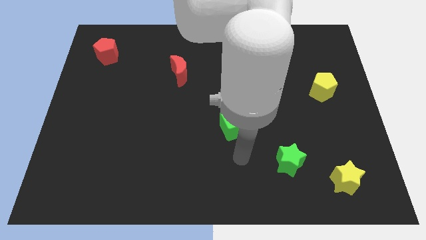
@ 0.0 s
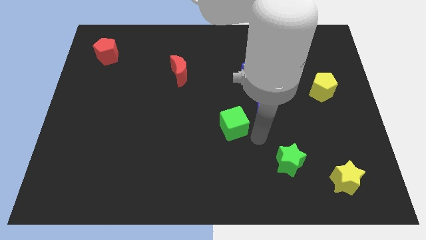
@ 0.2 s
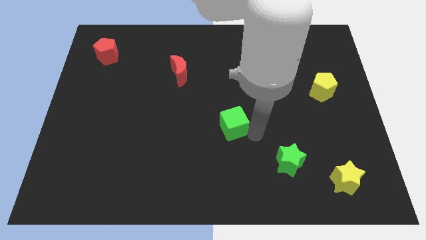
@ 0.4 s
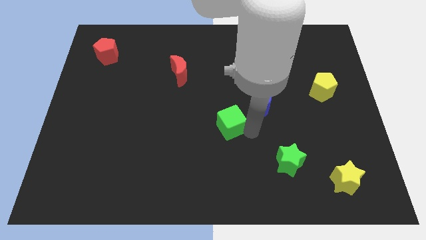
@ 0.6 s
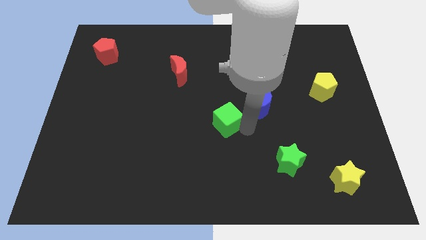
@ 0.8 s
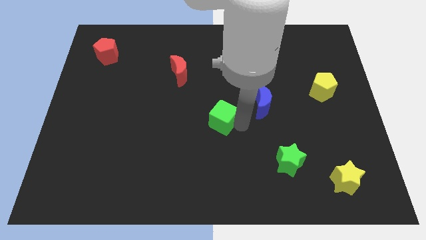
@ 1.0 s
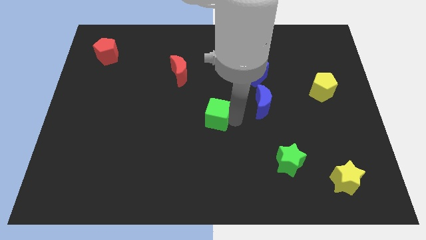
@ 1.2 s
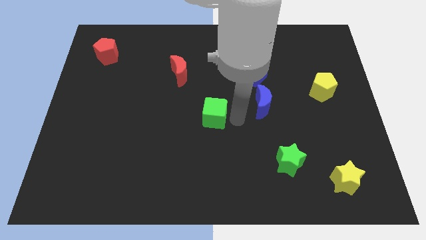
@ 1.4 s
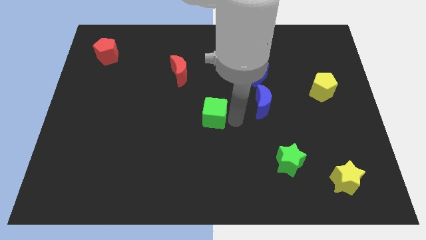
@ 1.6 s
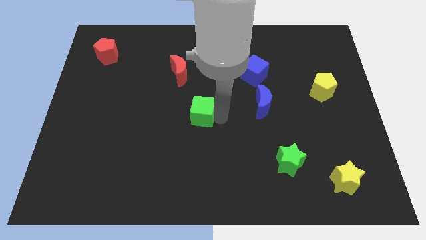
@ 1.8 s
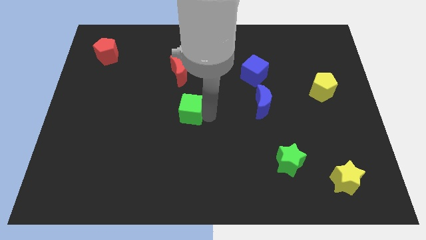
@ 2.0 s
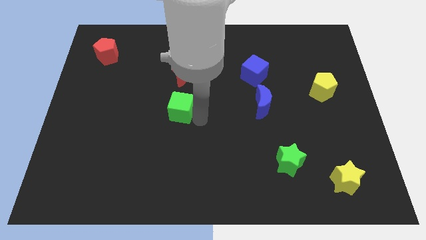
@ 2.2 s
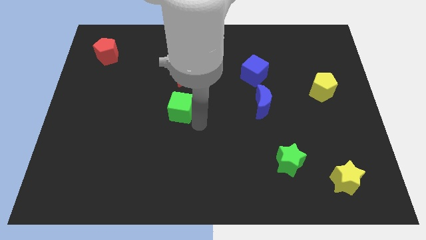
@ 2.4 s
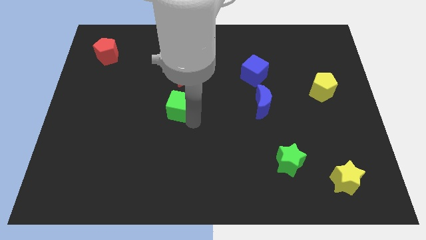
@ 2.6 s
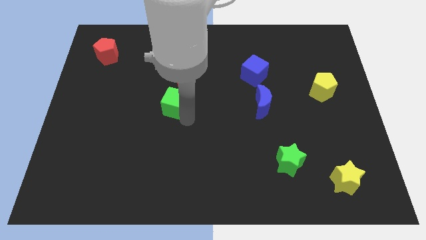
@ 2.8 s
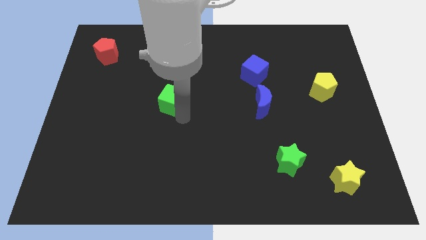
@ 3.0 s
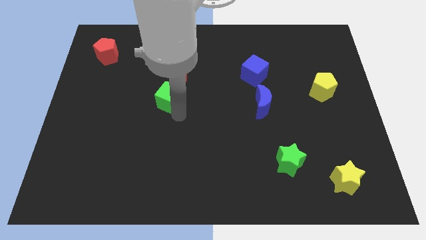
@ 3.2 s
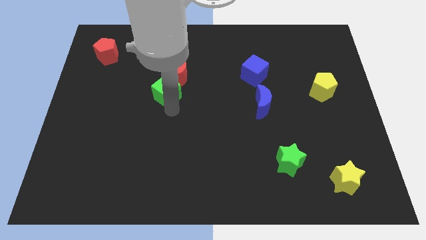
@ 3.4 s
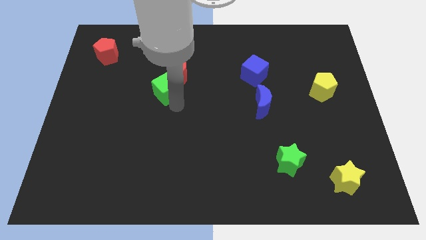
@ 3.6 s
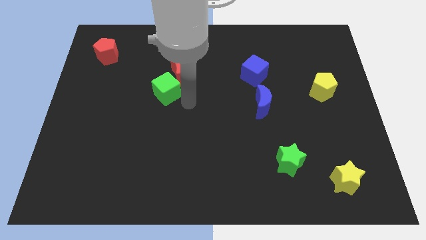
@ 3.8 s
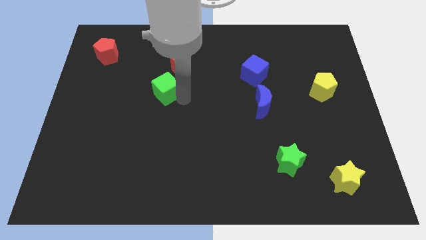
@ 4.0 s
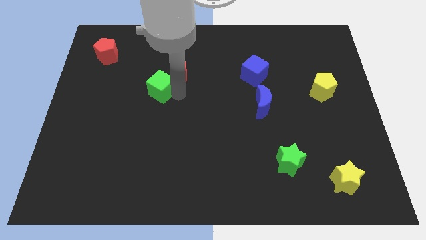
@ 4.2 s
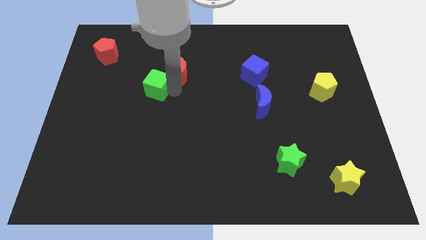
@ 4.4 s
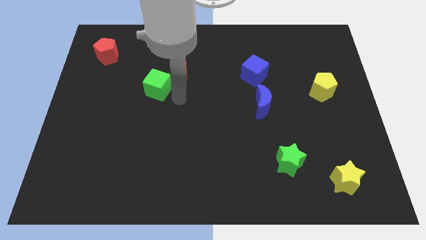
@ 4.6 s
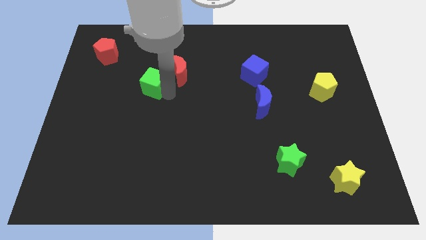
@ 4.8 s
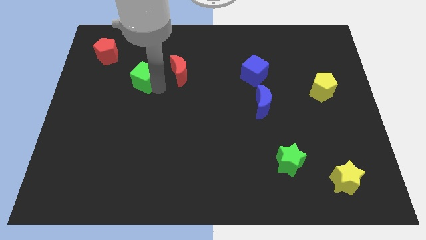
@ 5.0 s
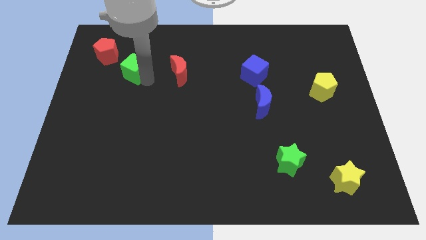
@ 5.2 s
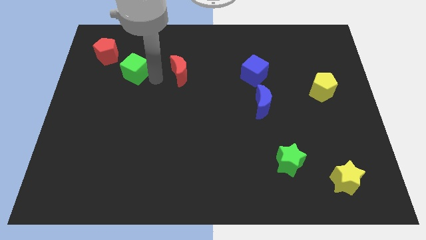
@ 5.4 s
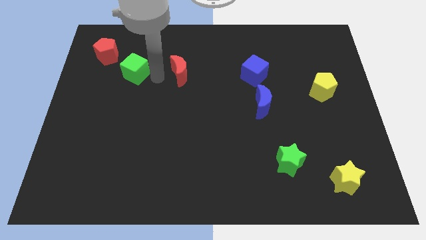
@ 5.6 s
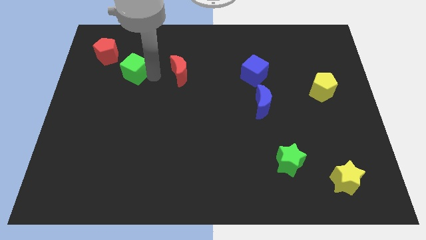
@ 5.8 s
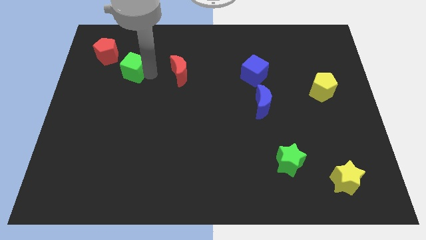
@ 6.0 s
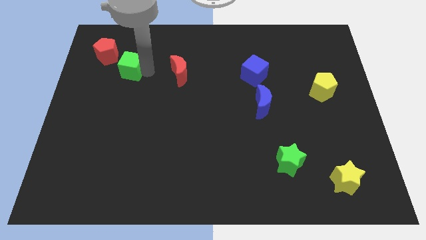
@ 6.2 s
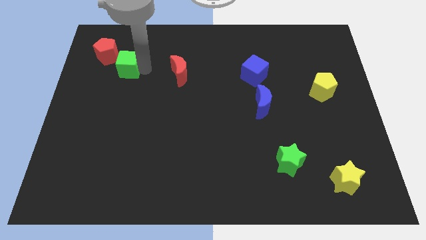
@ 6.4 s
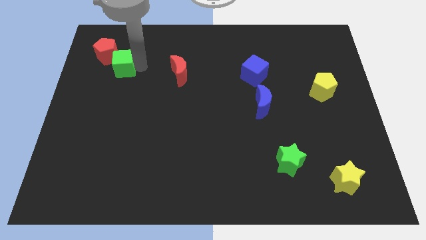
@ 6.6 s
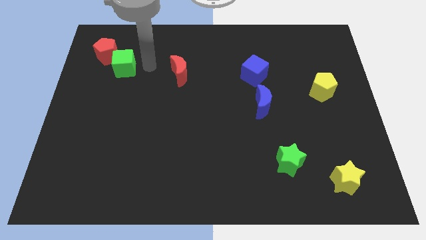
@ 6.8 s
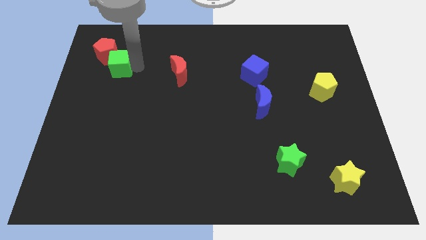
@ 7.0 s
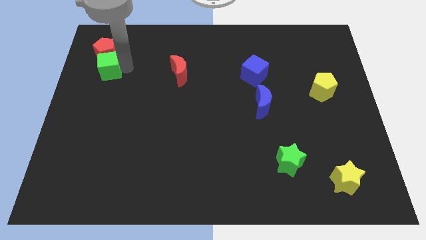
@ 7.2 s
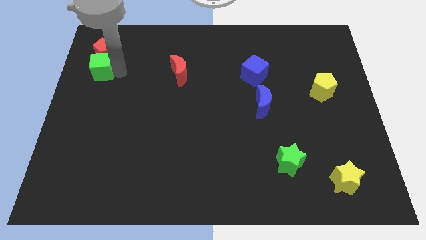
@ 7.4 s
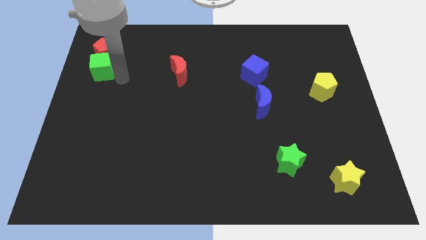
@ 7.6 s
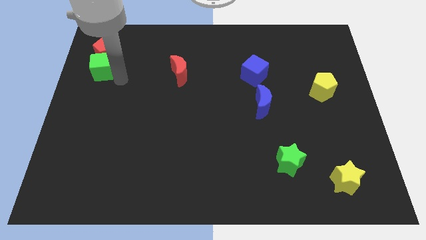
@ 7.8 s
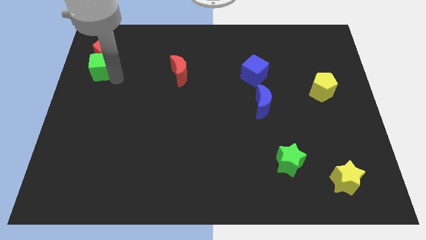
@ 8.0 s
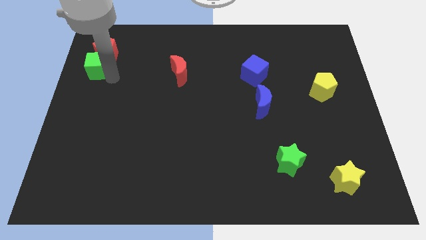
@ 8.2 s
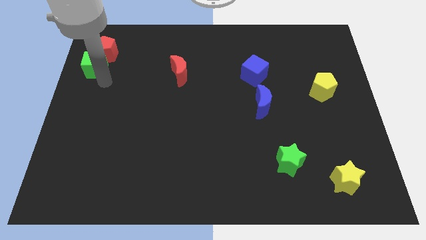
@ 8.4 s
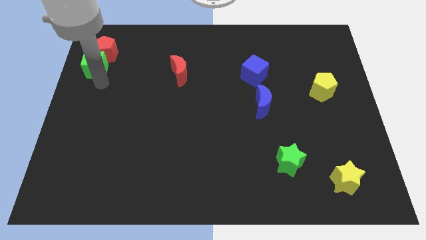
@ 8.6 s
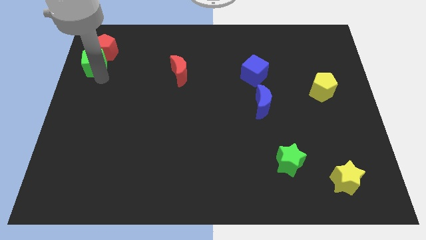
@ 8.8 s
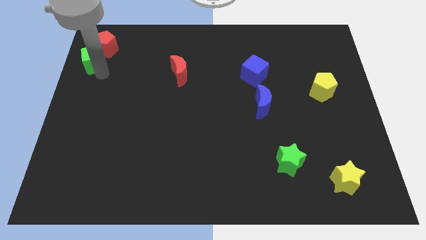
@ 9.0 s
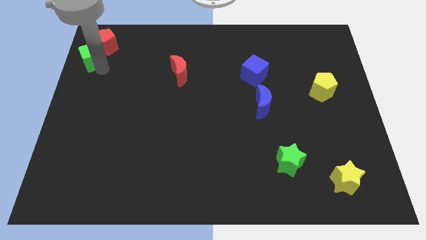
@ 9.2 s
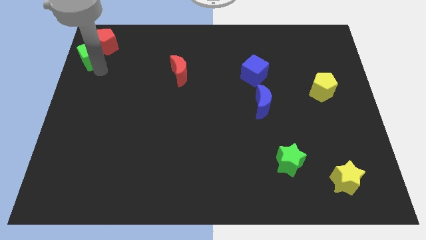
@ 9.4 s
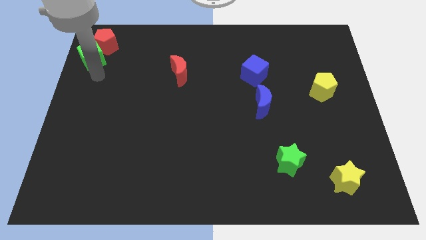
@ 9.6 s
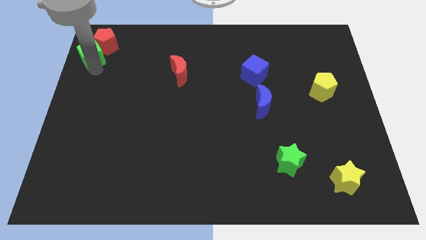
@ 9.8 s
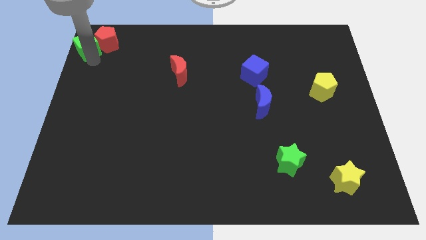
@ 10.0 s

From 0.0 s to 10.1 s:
push the green cube to the upper left corner
